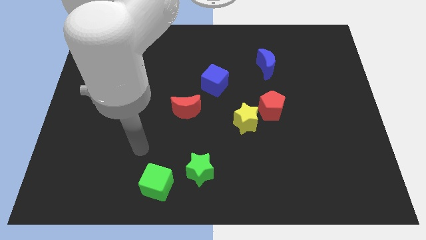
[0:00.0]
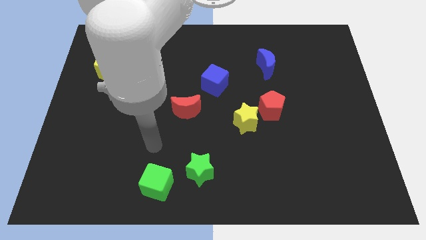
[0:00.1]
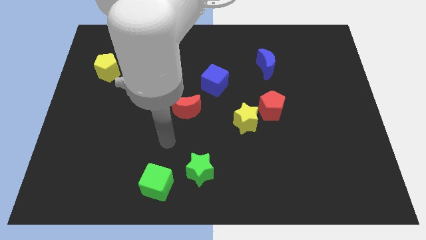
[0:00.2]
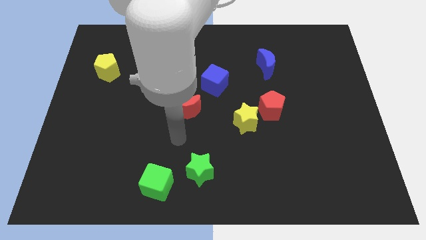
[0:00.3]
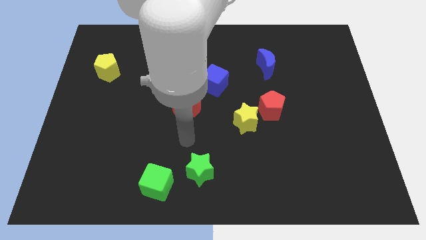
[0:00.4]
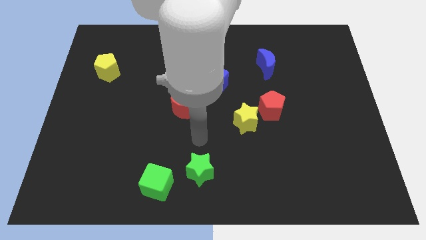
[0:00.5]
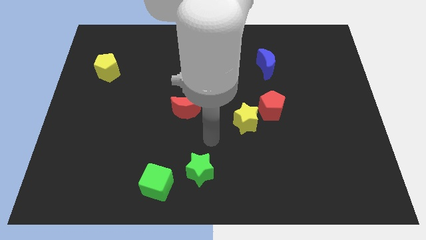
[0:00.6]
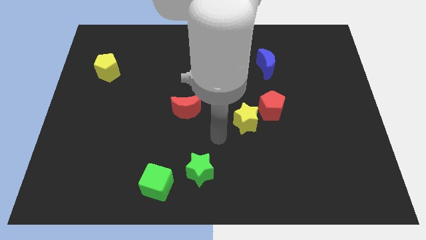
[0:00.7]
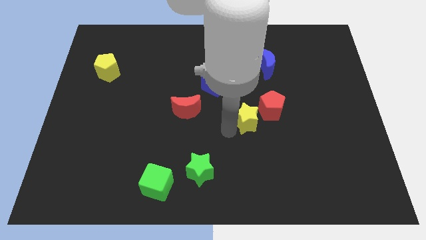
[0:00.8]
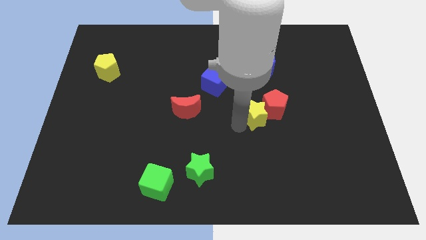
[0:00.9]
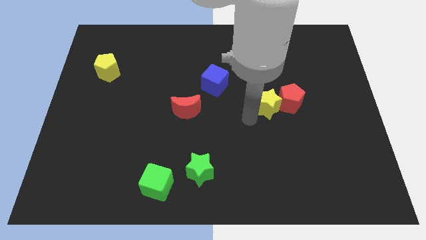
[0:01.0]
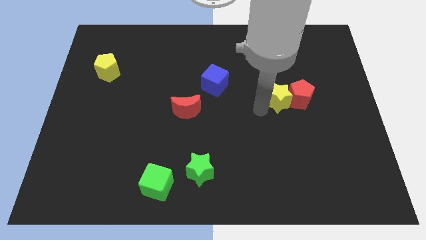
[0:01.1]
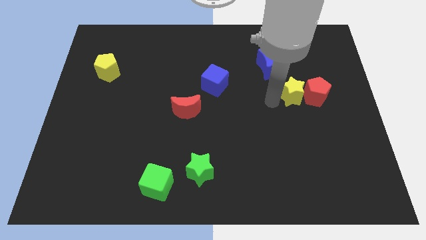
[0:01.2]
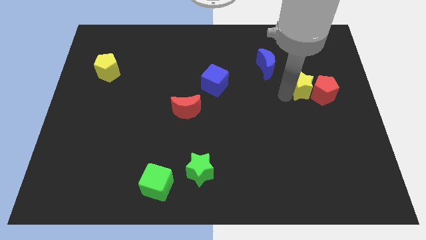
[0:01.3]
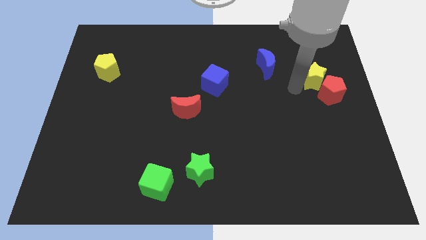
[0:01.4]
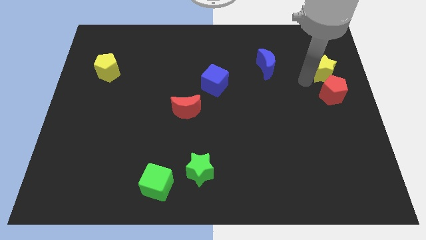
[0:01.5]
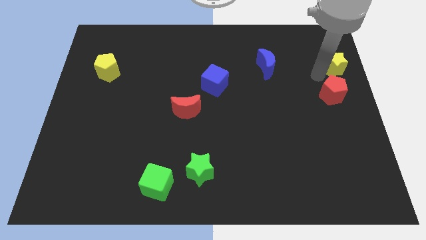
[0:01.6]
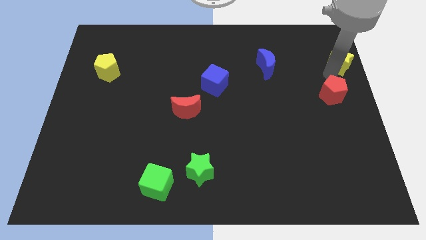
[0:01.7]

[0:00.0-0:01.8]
pull the red pentagon apart from the yellow star

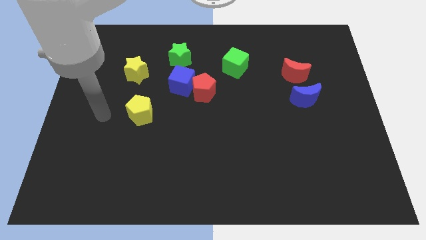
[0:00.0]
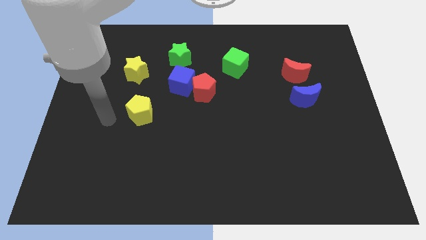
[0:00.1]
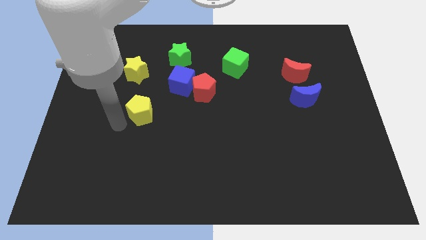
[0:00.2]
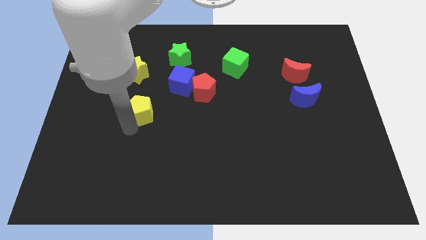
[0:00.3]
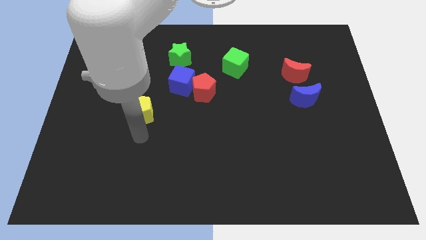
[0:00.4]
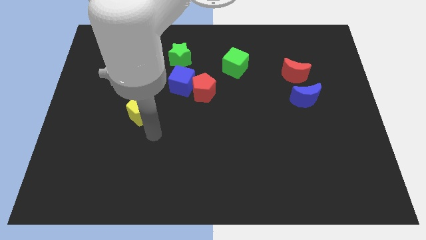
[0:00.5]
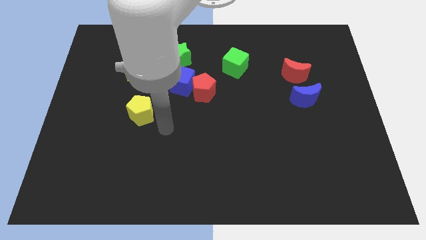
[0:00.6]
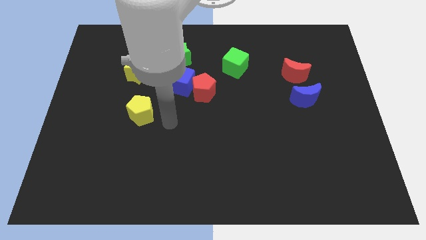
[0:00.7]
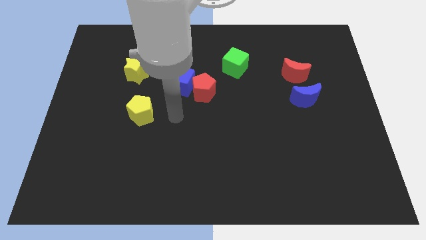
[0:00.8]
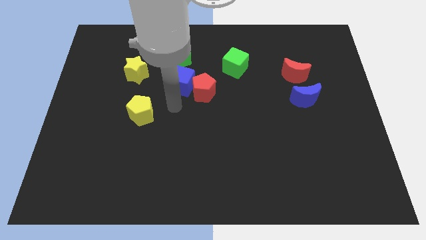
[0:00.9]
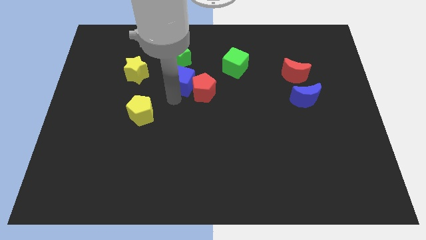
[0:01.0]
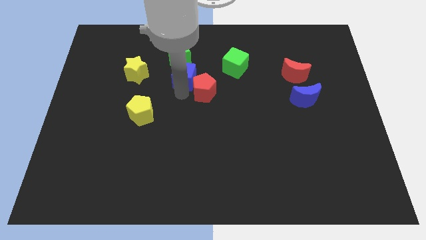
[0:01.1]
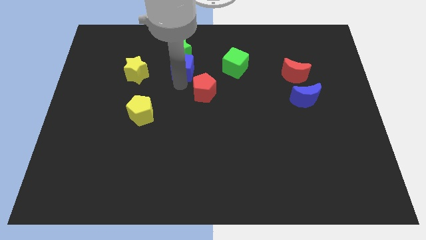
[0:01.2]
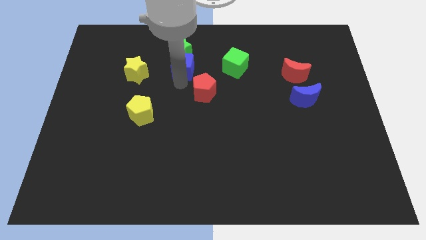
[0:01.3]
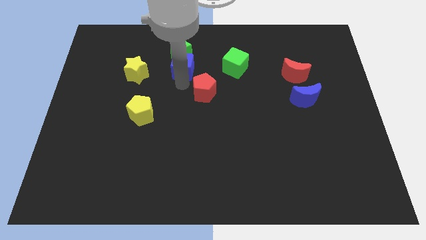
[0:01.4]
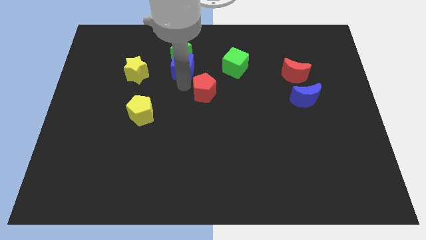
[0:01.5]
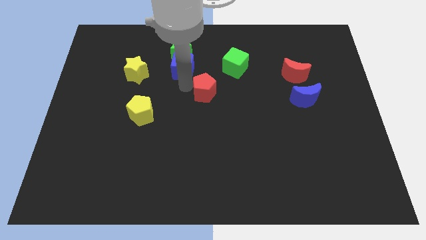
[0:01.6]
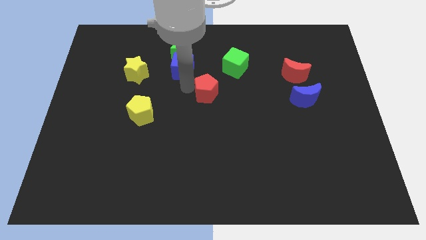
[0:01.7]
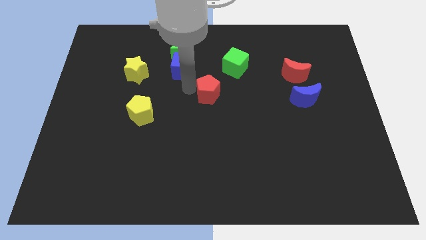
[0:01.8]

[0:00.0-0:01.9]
separate the red pentagon from the blue cube

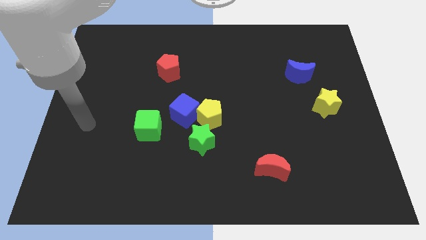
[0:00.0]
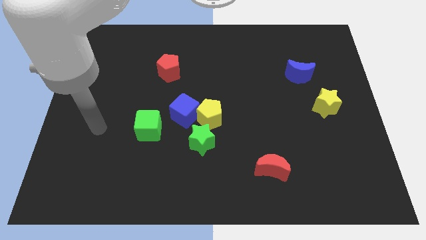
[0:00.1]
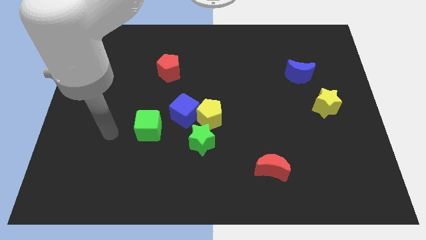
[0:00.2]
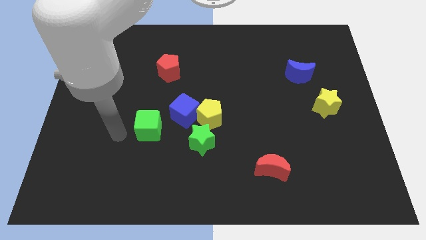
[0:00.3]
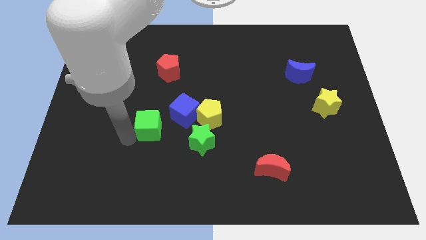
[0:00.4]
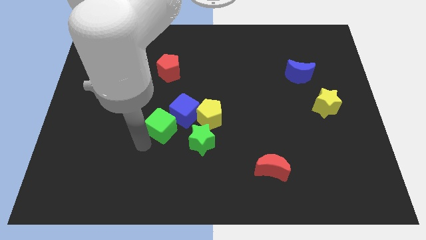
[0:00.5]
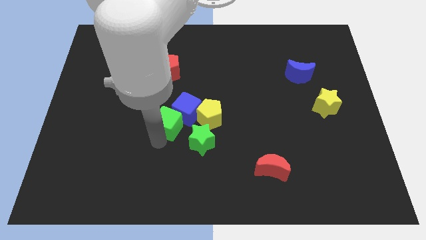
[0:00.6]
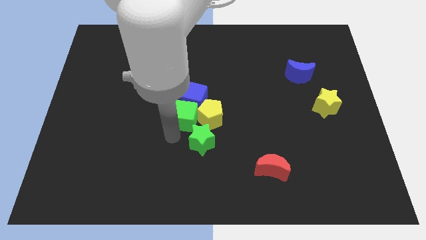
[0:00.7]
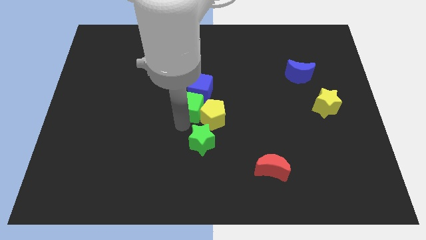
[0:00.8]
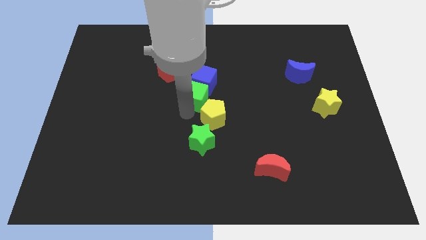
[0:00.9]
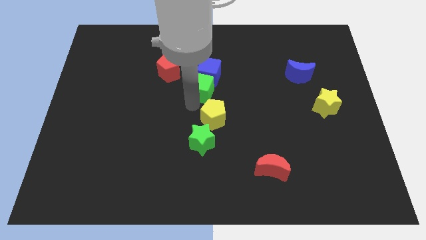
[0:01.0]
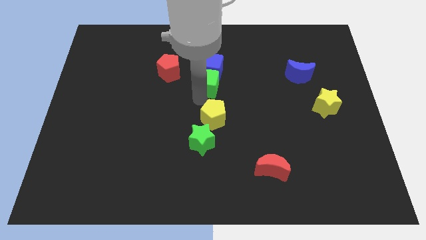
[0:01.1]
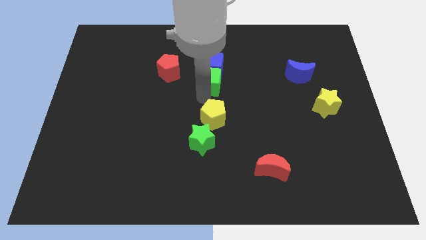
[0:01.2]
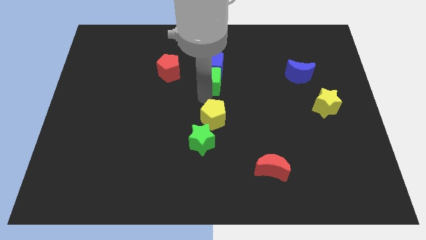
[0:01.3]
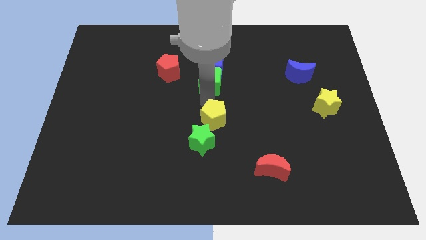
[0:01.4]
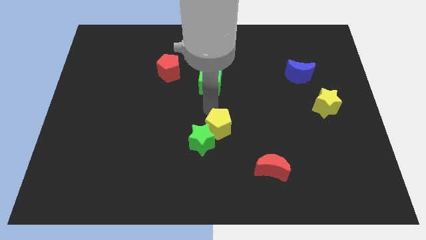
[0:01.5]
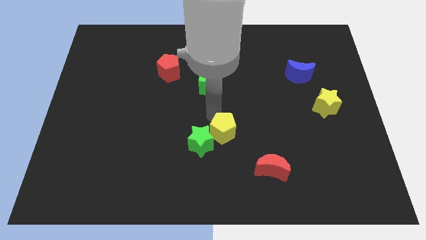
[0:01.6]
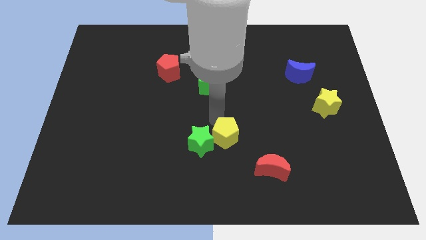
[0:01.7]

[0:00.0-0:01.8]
separate the yellow pentagon from the blue cube and green star

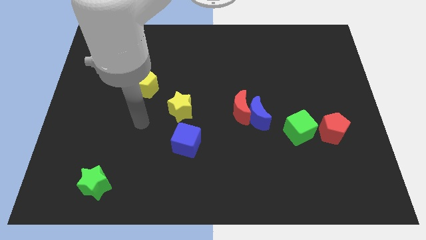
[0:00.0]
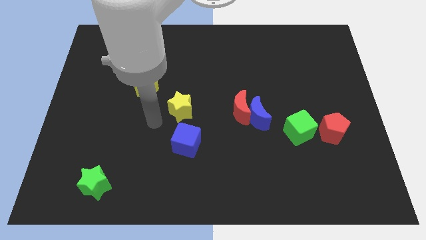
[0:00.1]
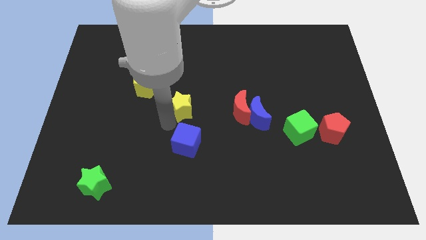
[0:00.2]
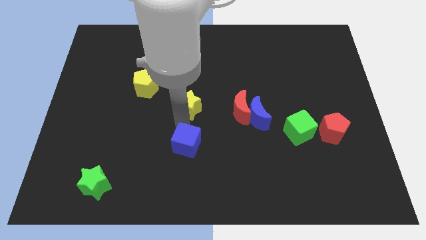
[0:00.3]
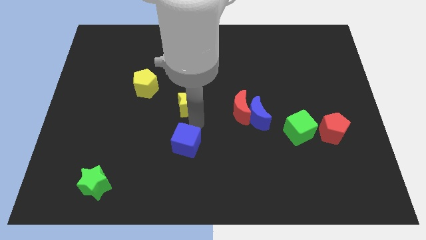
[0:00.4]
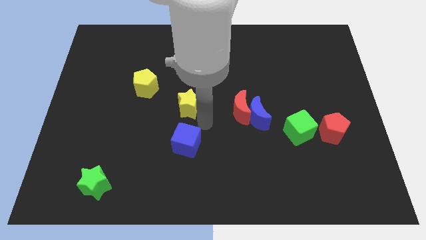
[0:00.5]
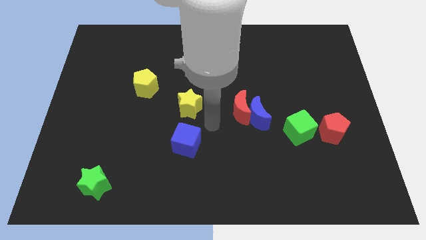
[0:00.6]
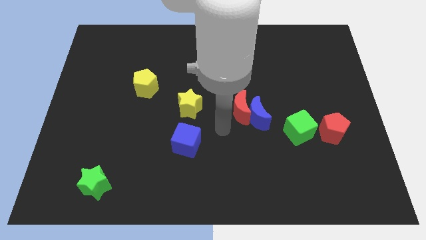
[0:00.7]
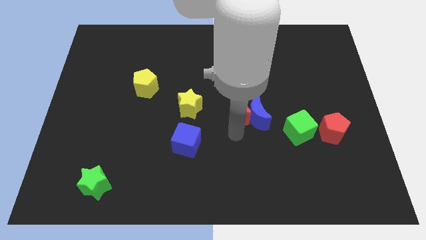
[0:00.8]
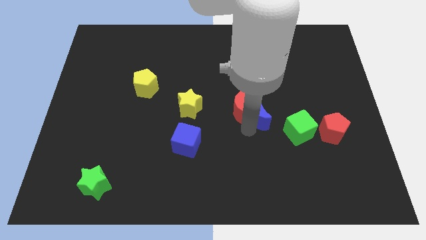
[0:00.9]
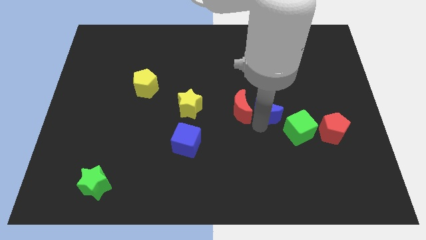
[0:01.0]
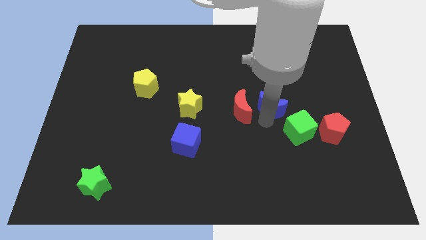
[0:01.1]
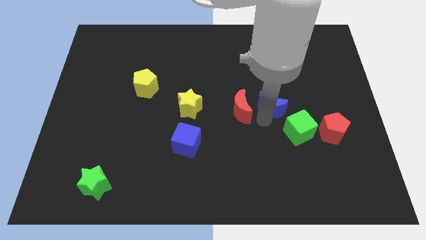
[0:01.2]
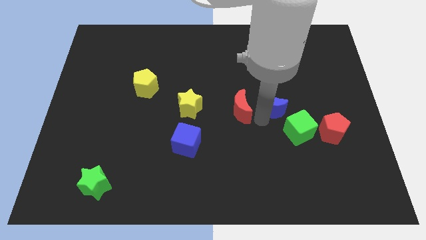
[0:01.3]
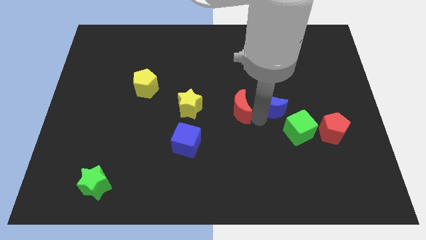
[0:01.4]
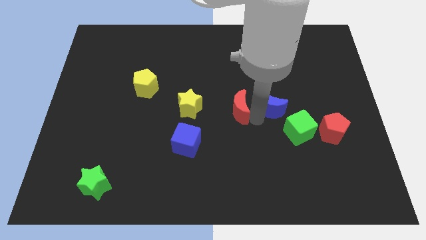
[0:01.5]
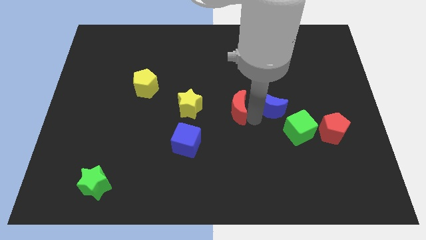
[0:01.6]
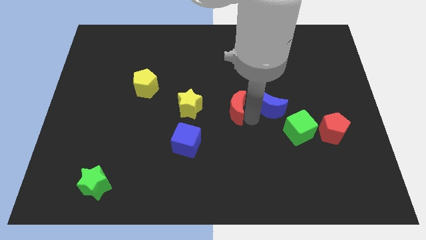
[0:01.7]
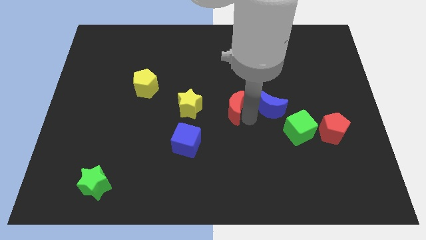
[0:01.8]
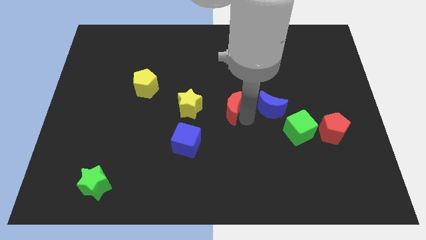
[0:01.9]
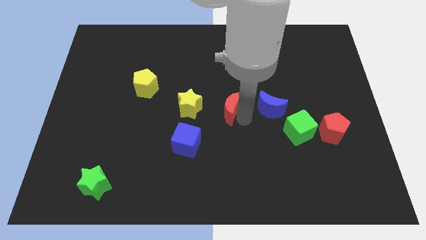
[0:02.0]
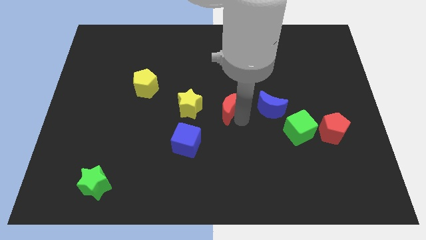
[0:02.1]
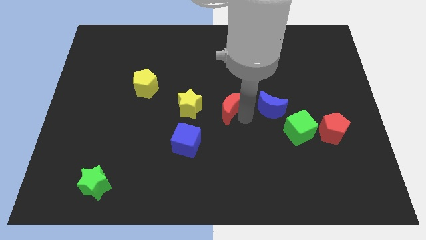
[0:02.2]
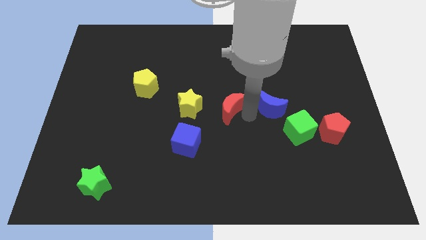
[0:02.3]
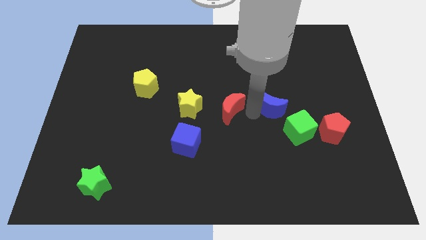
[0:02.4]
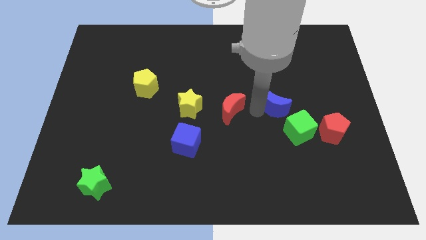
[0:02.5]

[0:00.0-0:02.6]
separate the red moon from the blue moon

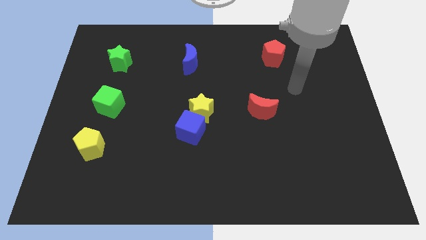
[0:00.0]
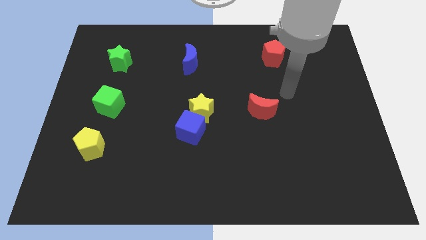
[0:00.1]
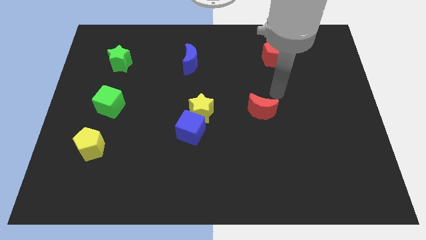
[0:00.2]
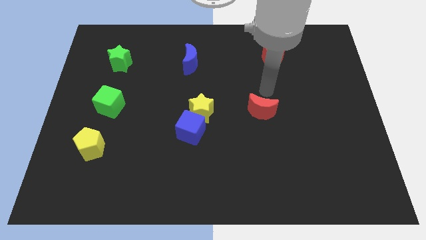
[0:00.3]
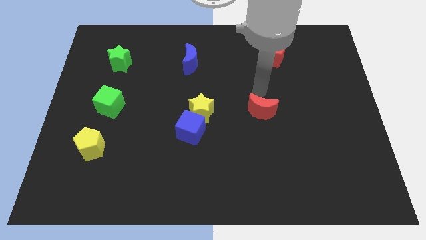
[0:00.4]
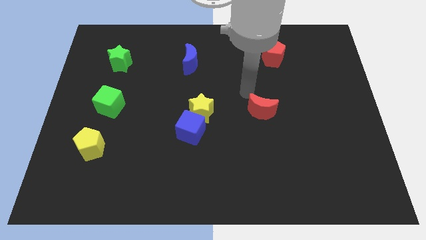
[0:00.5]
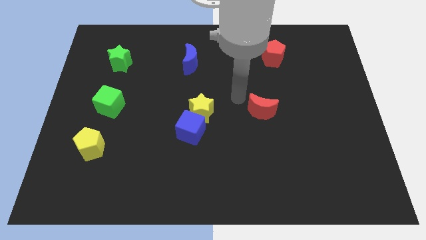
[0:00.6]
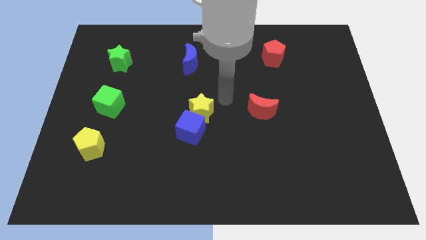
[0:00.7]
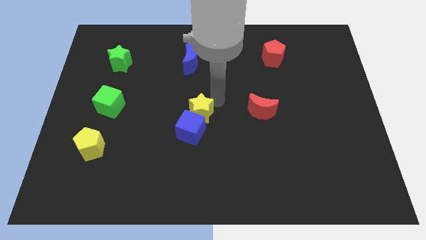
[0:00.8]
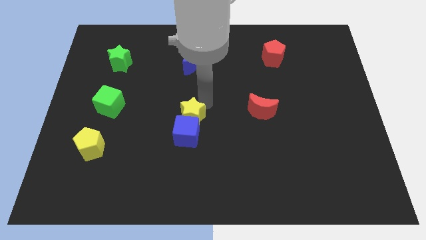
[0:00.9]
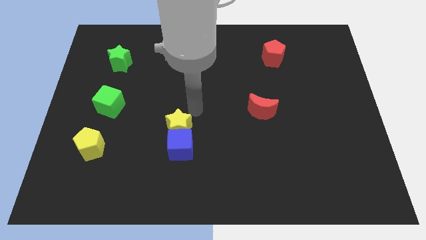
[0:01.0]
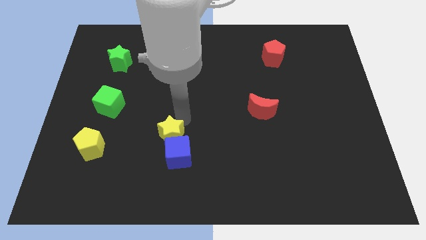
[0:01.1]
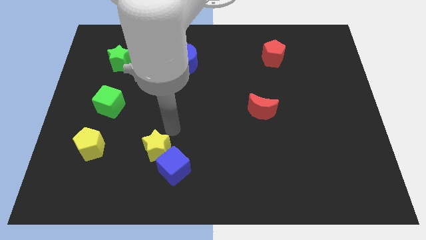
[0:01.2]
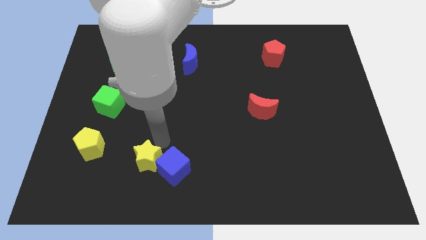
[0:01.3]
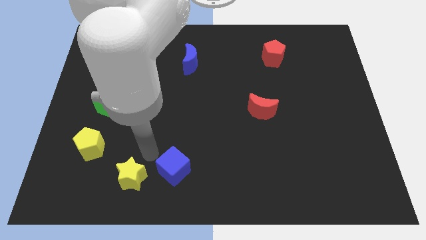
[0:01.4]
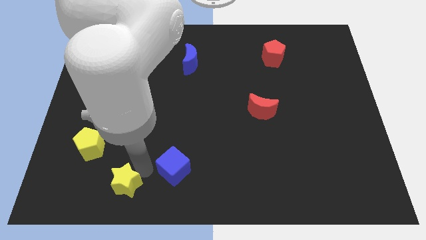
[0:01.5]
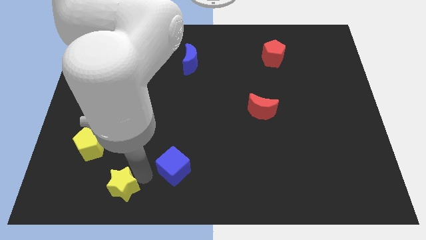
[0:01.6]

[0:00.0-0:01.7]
separate the blue cube from the yellow star
